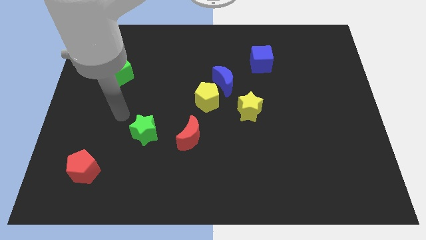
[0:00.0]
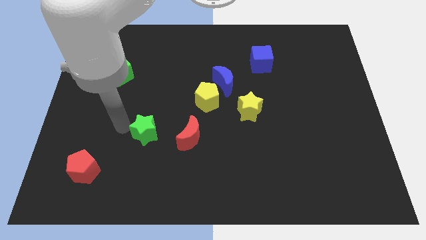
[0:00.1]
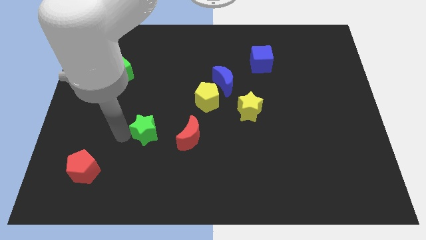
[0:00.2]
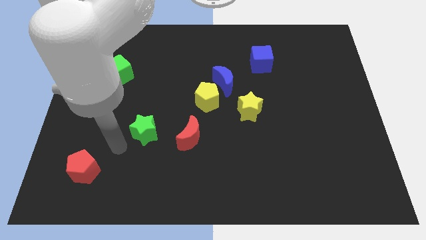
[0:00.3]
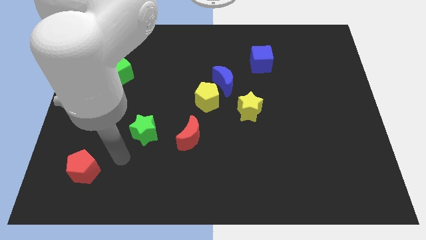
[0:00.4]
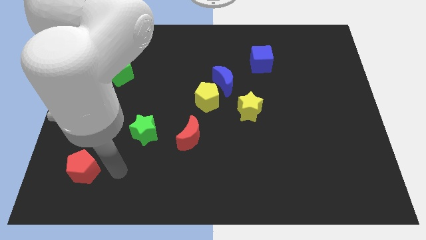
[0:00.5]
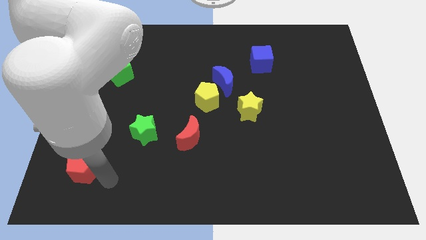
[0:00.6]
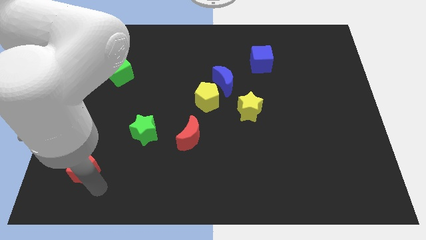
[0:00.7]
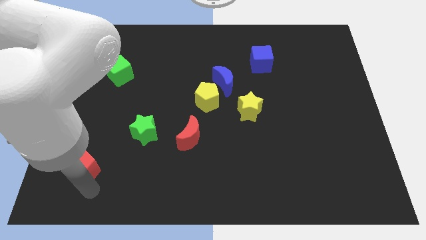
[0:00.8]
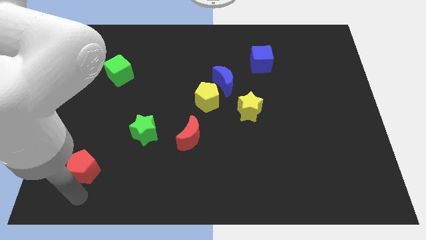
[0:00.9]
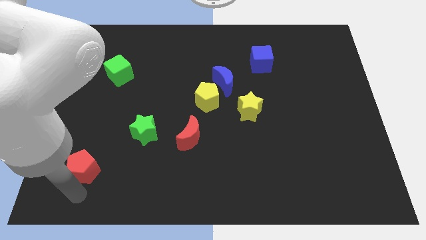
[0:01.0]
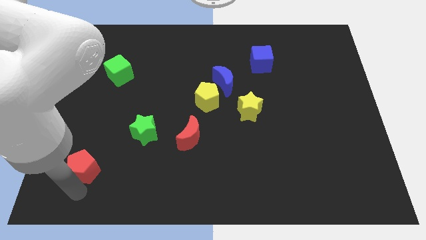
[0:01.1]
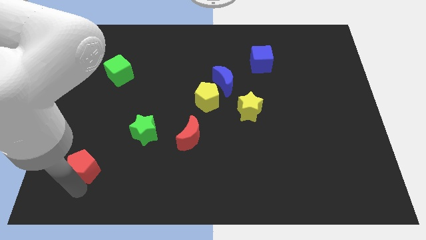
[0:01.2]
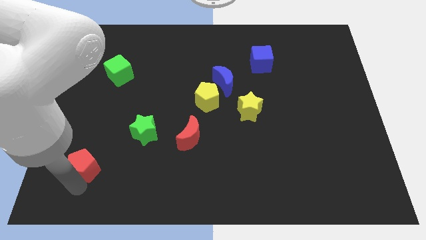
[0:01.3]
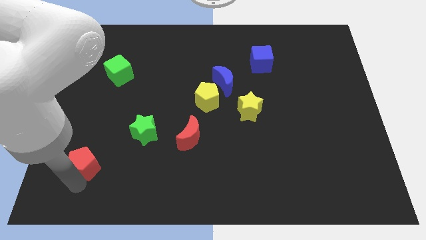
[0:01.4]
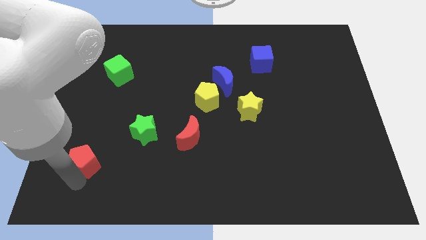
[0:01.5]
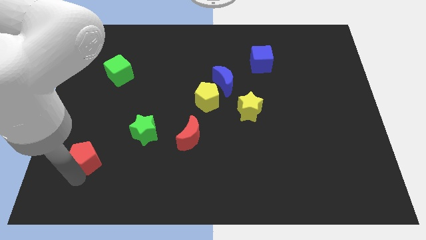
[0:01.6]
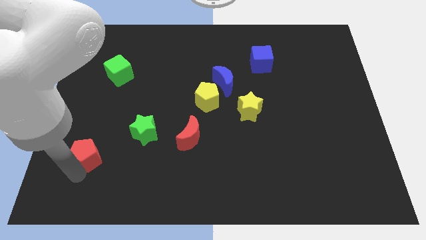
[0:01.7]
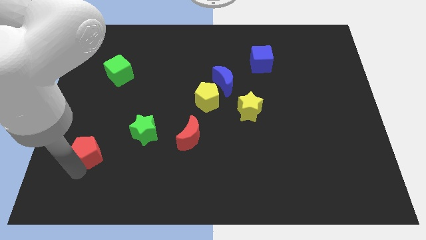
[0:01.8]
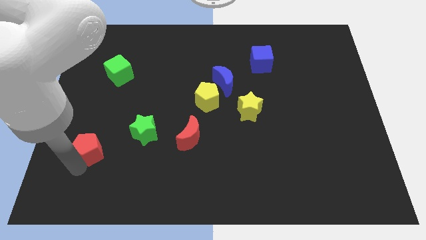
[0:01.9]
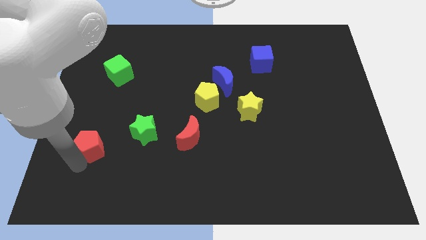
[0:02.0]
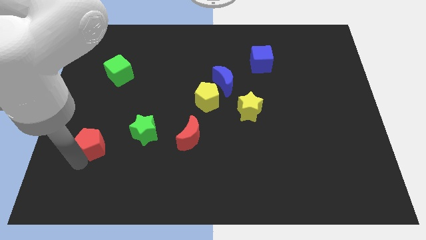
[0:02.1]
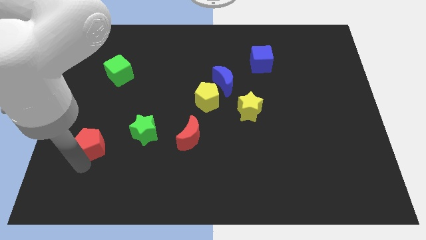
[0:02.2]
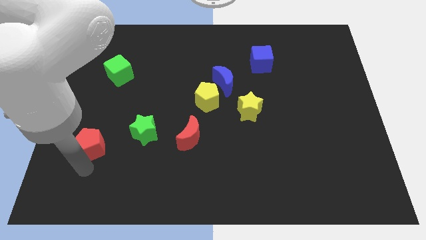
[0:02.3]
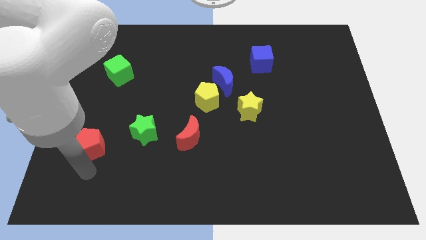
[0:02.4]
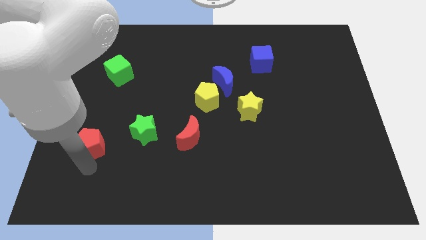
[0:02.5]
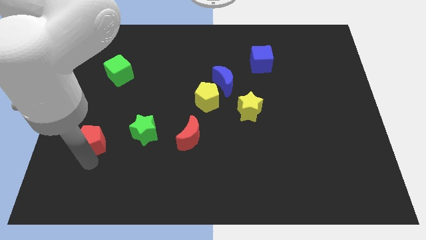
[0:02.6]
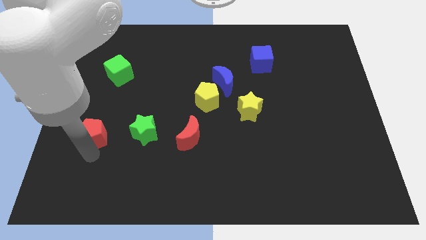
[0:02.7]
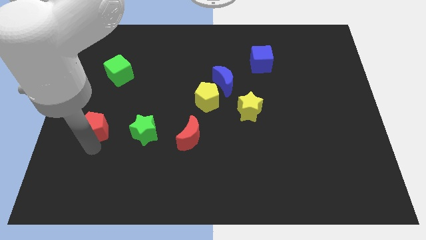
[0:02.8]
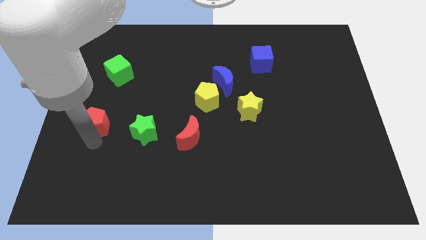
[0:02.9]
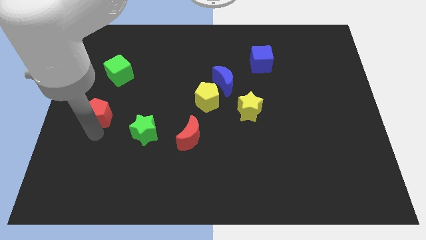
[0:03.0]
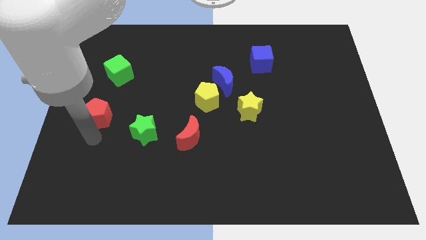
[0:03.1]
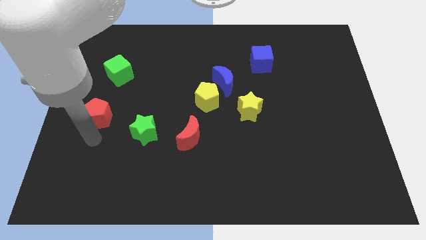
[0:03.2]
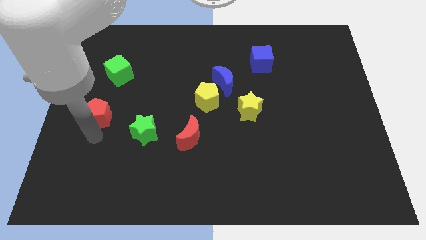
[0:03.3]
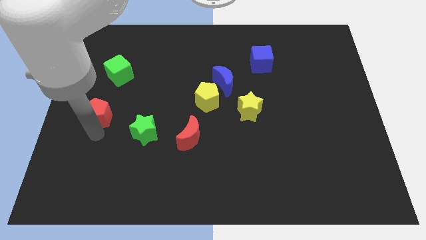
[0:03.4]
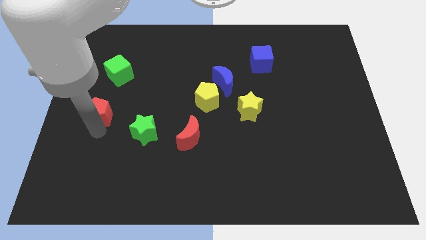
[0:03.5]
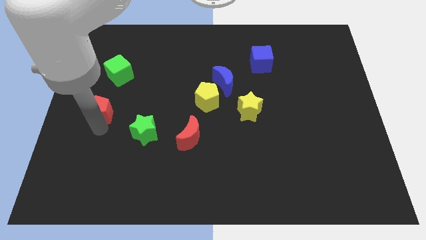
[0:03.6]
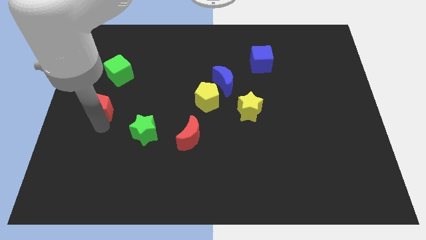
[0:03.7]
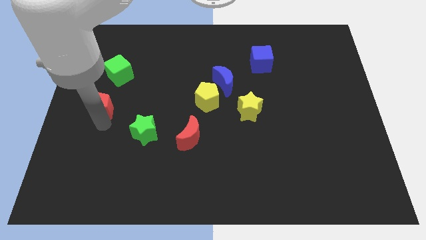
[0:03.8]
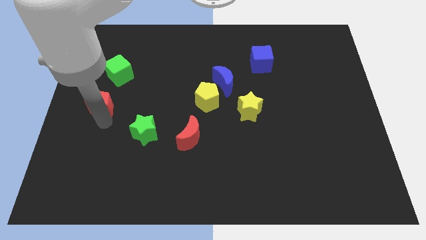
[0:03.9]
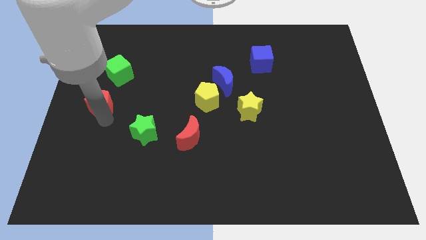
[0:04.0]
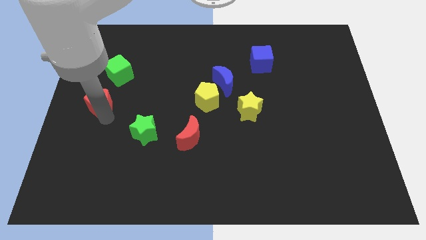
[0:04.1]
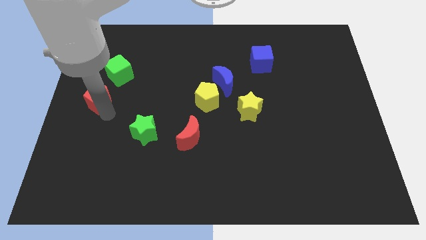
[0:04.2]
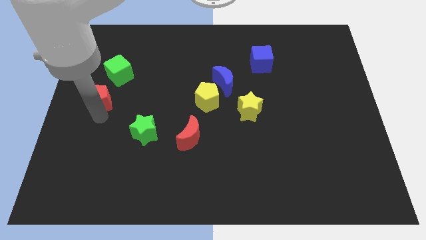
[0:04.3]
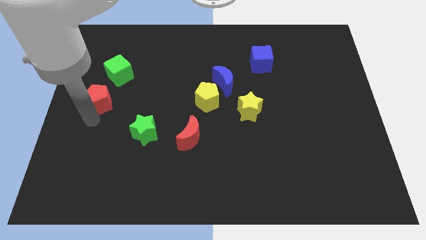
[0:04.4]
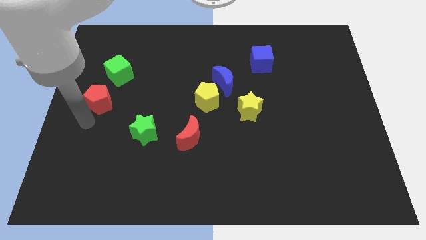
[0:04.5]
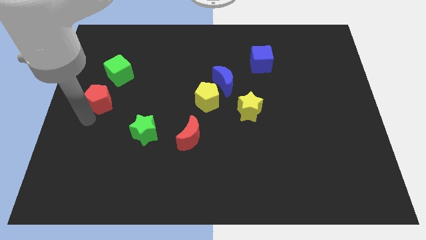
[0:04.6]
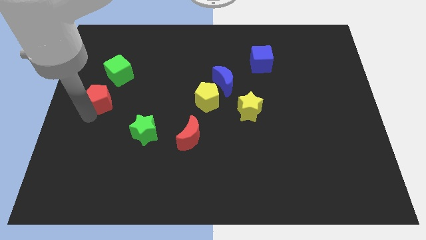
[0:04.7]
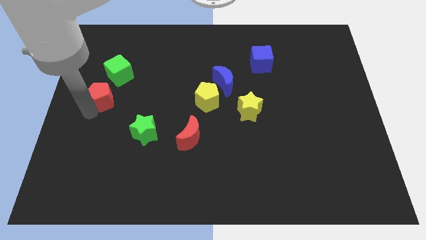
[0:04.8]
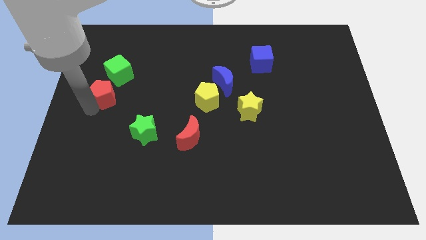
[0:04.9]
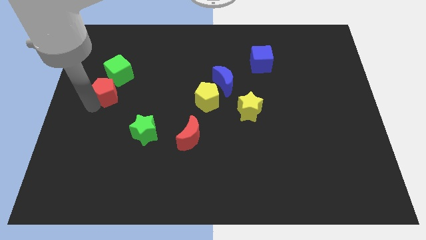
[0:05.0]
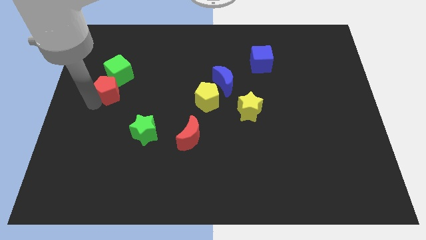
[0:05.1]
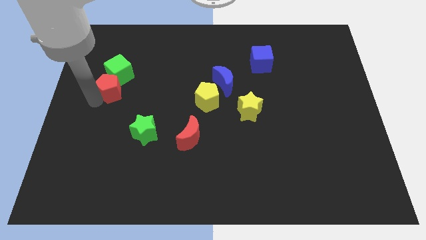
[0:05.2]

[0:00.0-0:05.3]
put the red pentagon to the green cube

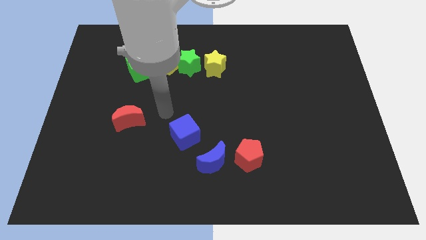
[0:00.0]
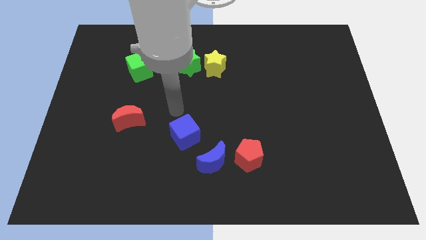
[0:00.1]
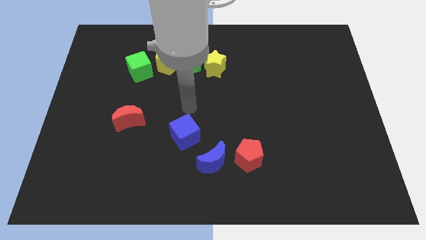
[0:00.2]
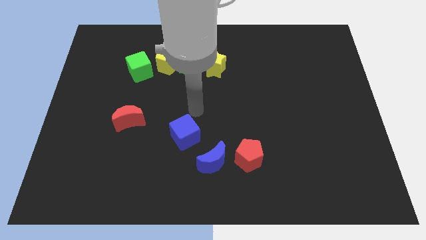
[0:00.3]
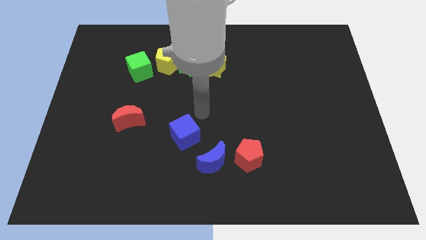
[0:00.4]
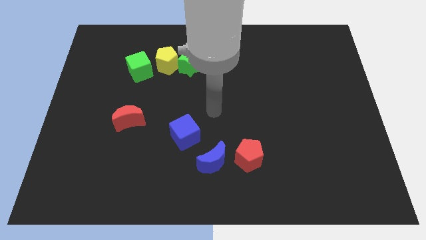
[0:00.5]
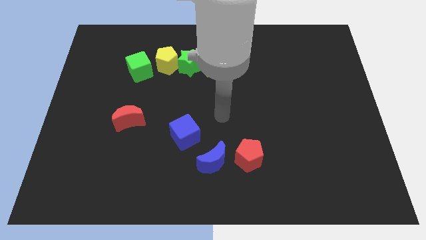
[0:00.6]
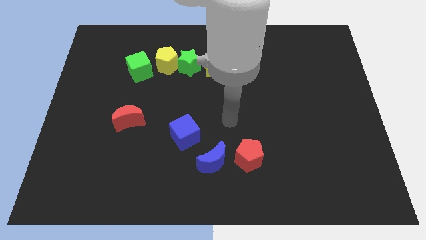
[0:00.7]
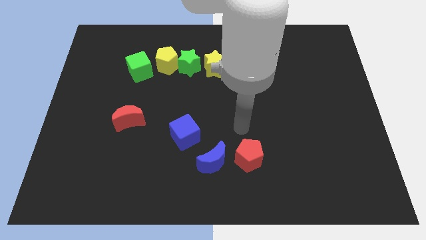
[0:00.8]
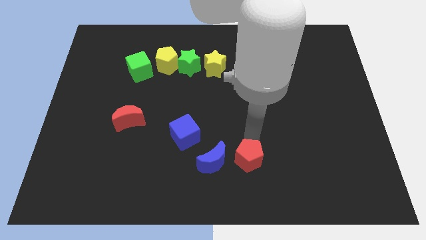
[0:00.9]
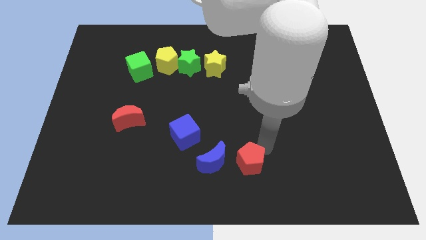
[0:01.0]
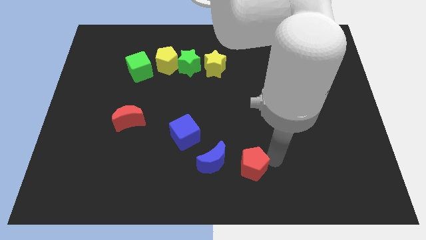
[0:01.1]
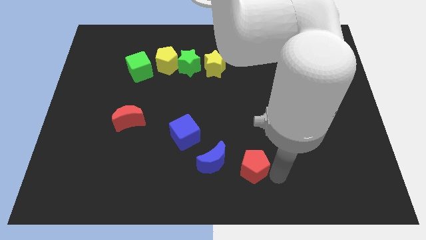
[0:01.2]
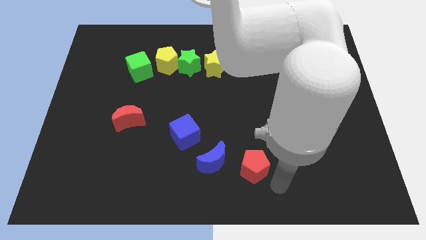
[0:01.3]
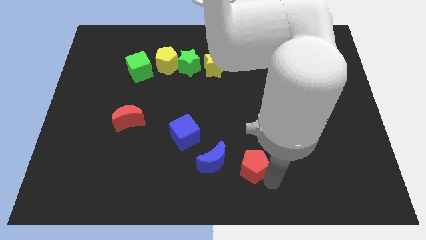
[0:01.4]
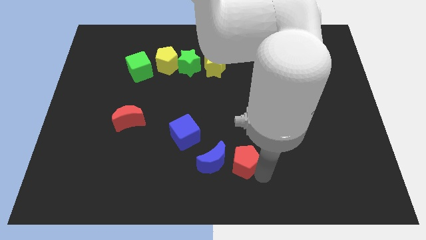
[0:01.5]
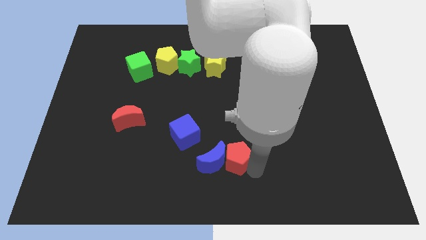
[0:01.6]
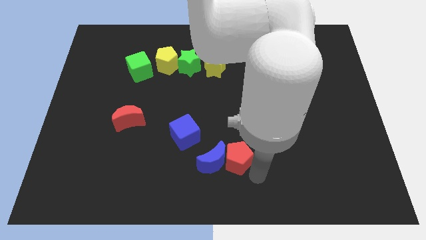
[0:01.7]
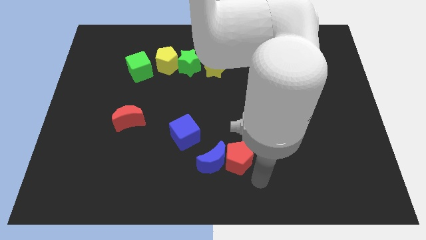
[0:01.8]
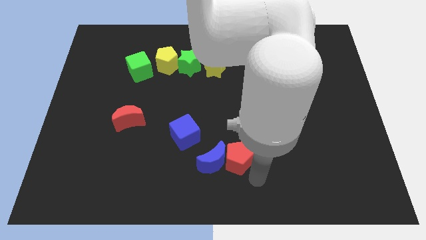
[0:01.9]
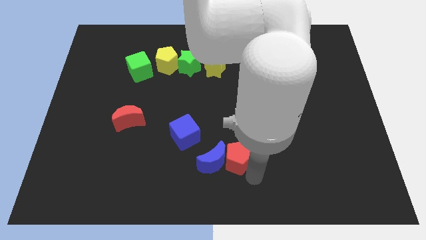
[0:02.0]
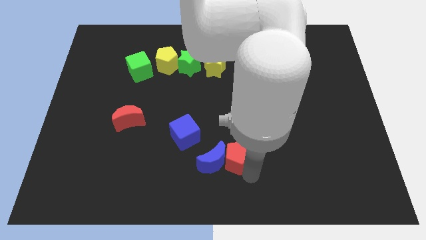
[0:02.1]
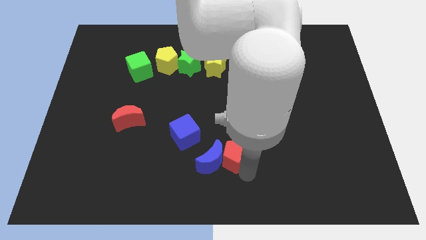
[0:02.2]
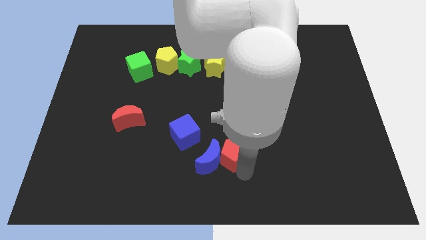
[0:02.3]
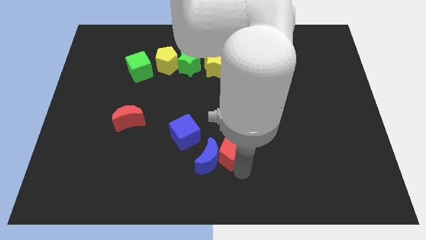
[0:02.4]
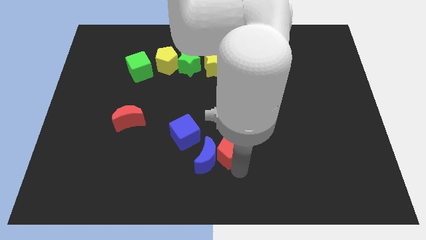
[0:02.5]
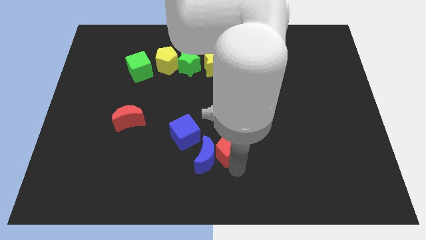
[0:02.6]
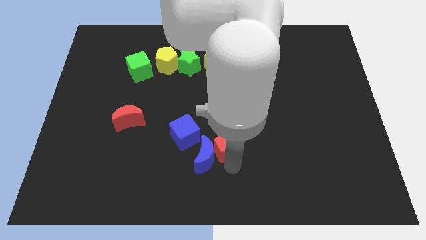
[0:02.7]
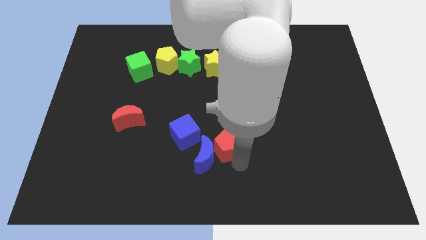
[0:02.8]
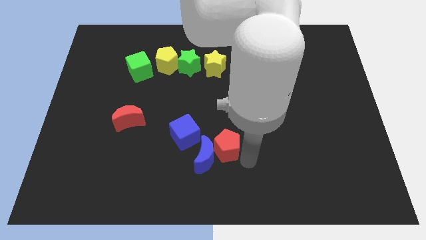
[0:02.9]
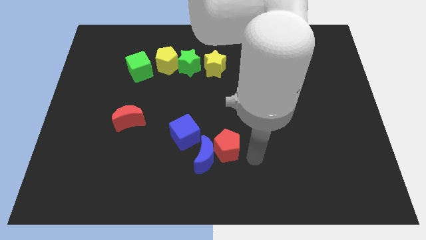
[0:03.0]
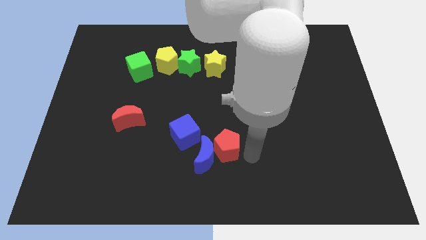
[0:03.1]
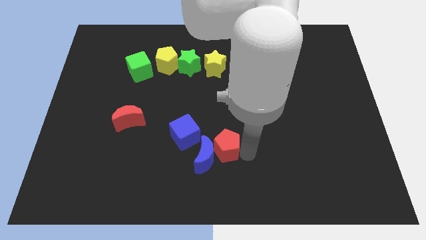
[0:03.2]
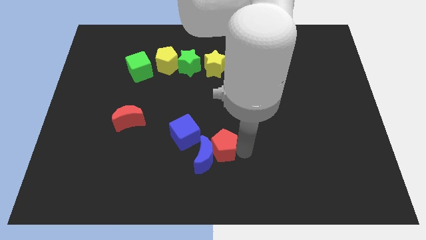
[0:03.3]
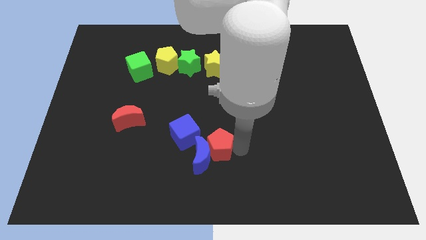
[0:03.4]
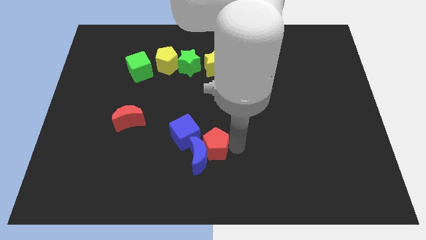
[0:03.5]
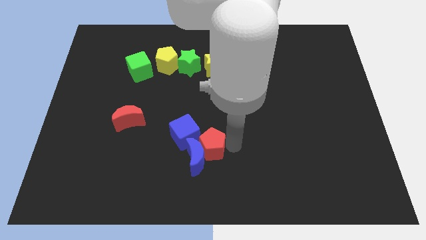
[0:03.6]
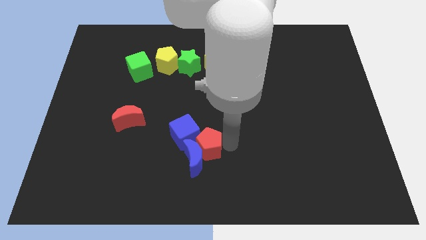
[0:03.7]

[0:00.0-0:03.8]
put the red pentagon next to the blue cube
